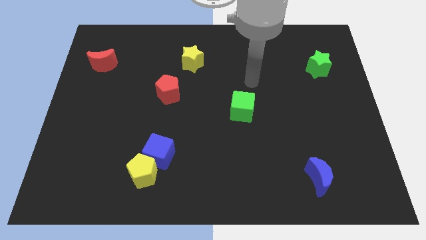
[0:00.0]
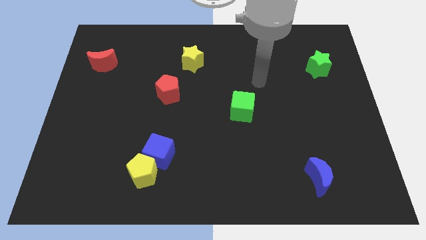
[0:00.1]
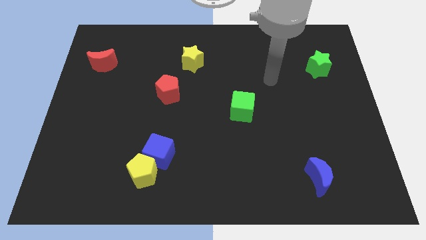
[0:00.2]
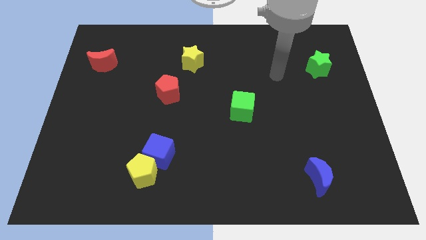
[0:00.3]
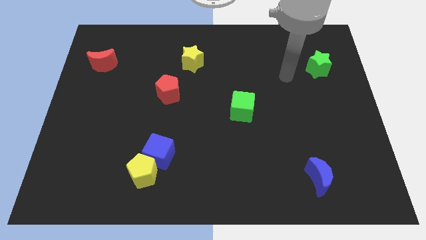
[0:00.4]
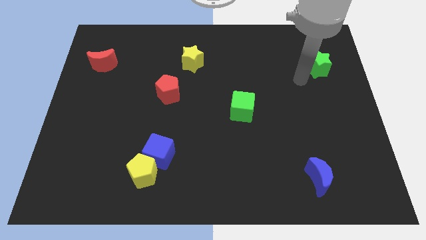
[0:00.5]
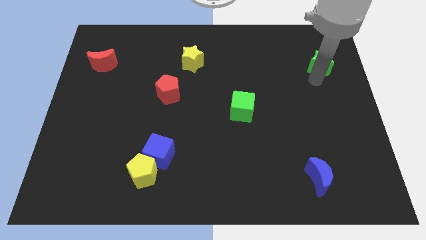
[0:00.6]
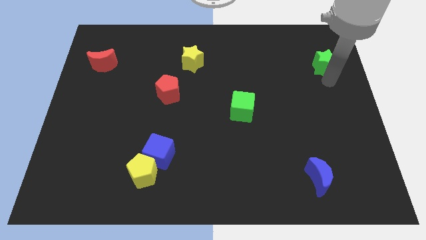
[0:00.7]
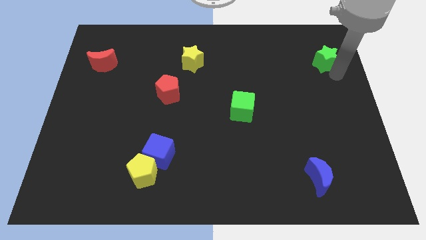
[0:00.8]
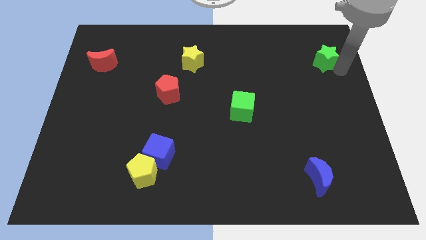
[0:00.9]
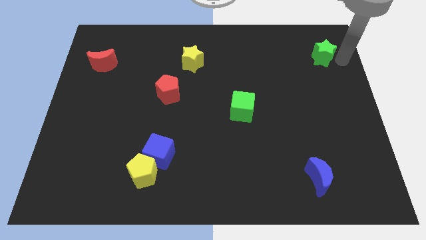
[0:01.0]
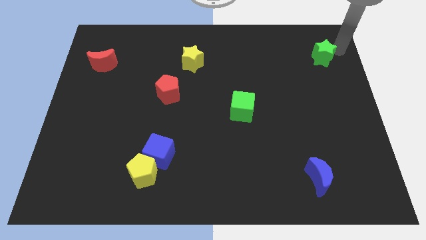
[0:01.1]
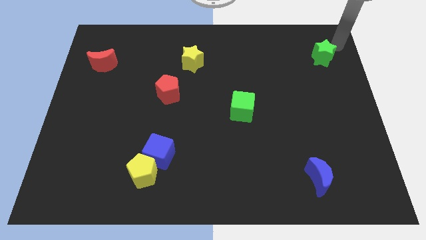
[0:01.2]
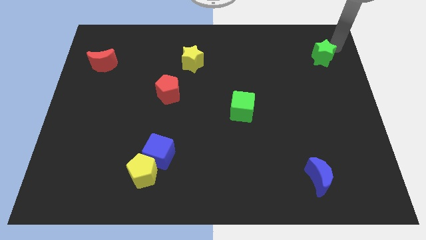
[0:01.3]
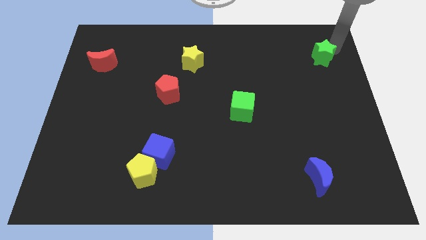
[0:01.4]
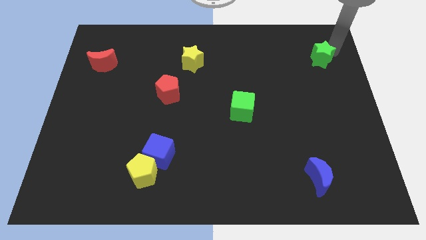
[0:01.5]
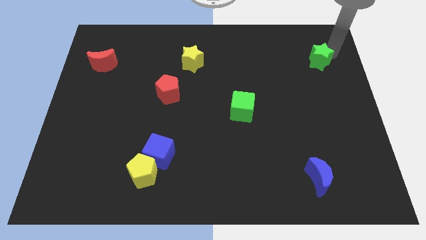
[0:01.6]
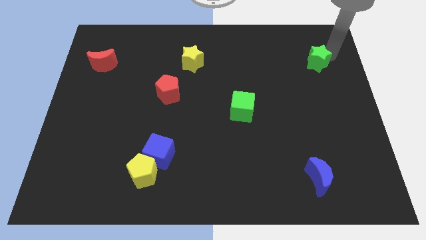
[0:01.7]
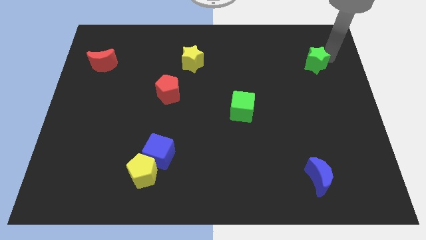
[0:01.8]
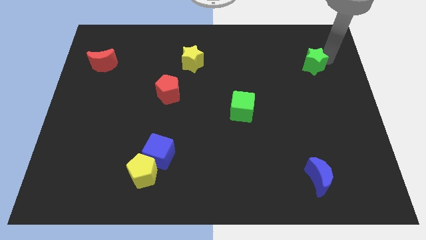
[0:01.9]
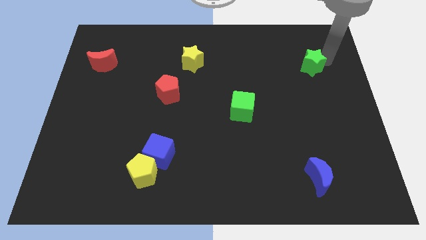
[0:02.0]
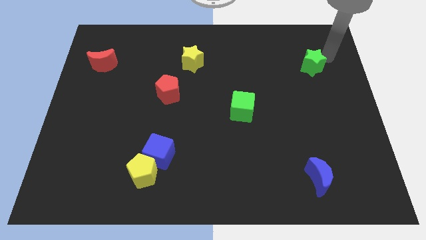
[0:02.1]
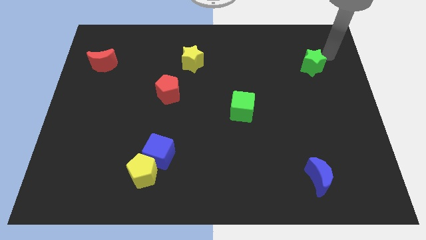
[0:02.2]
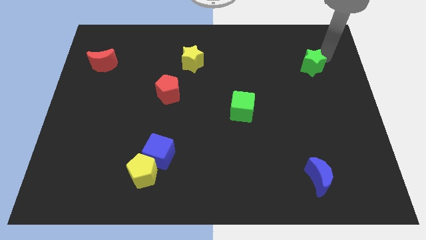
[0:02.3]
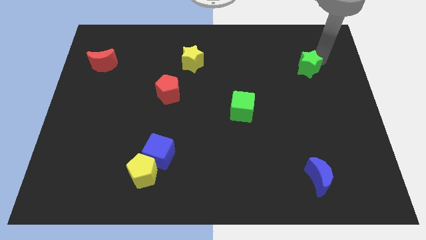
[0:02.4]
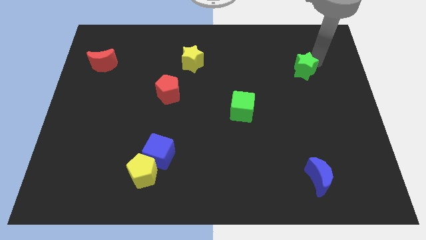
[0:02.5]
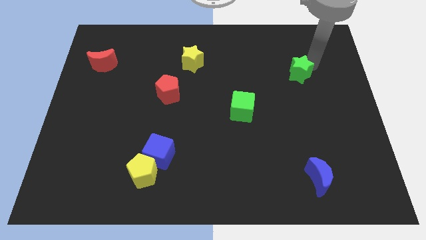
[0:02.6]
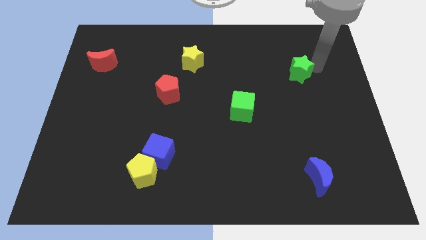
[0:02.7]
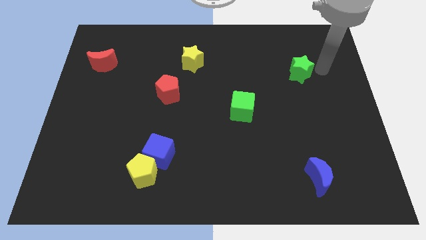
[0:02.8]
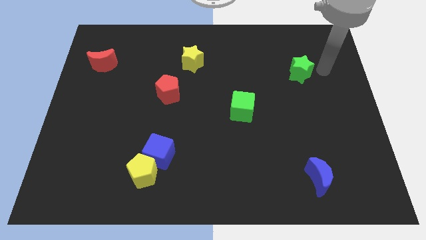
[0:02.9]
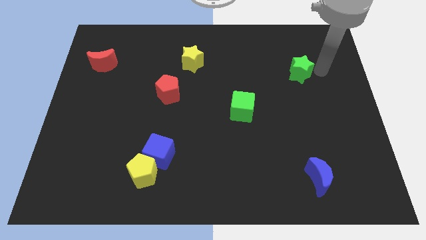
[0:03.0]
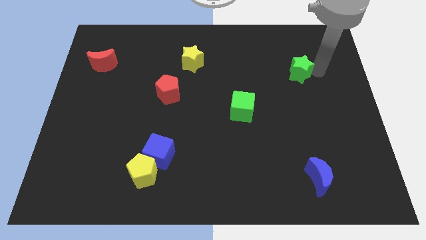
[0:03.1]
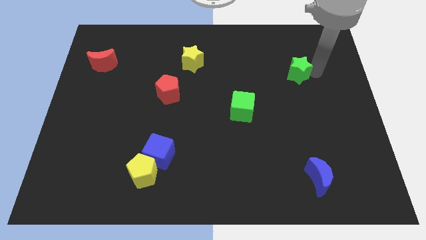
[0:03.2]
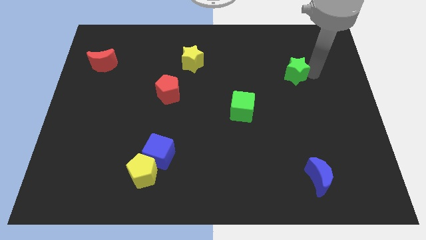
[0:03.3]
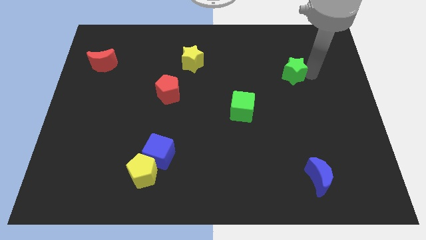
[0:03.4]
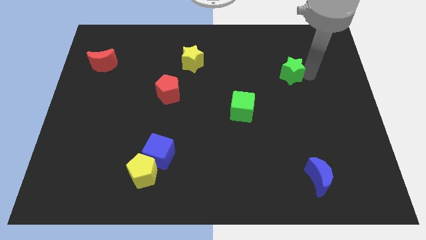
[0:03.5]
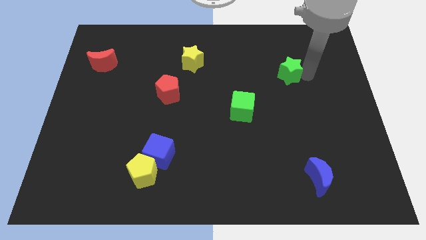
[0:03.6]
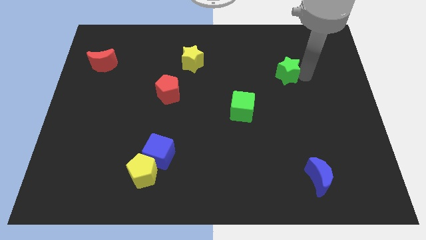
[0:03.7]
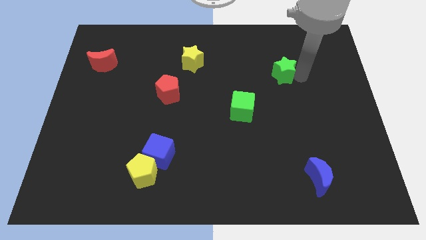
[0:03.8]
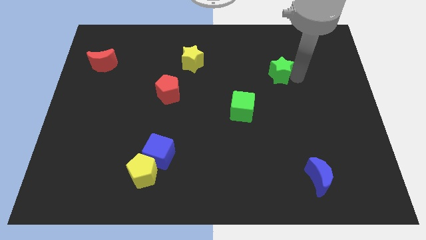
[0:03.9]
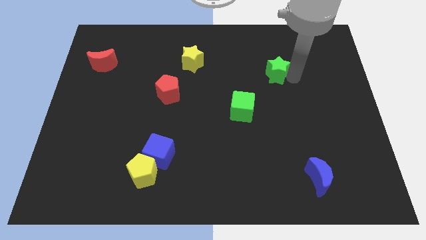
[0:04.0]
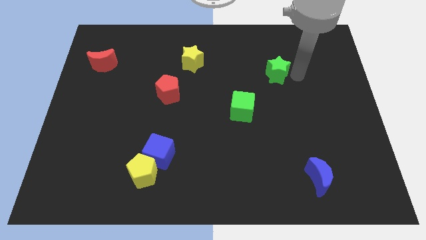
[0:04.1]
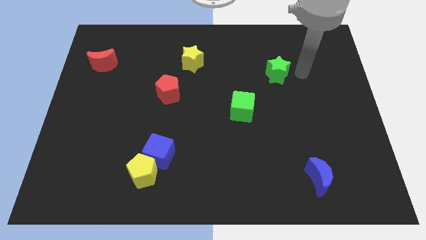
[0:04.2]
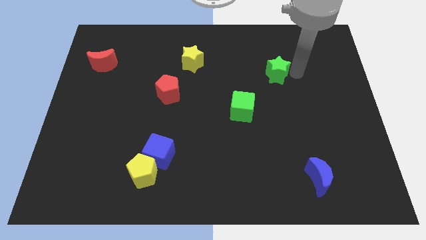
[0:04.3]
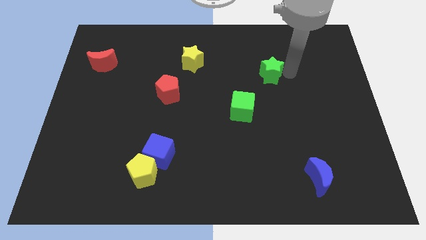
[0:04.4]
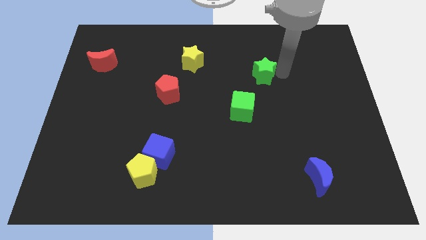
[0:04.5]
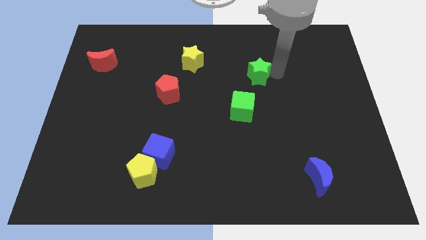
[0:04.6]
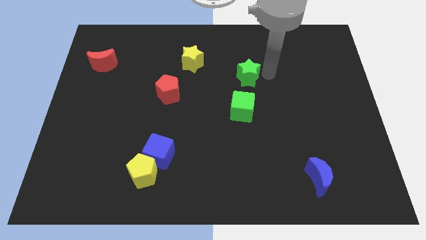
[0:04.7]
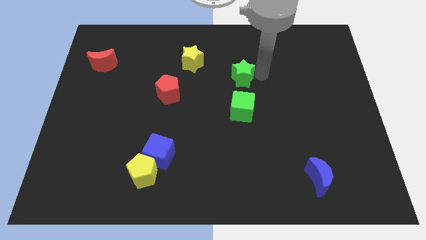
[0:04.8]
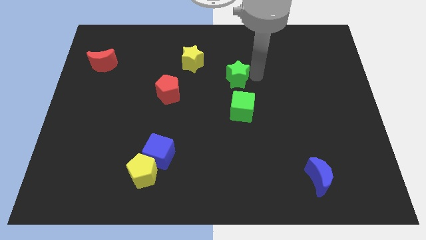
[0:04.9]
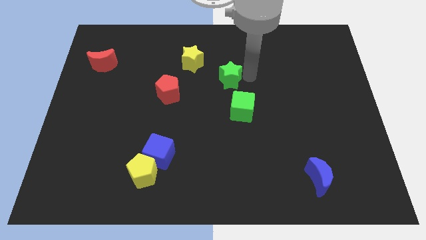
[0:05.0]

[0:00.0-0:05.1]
slide the green star diagonally down and to the right of the yellow star

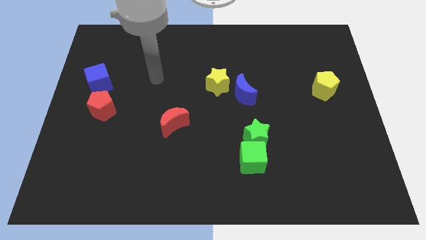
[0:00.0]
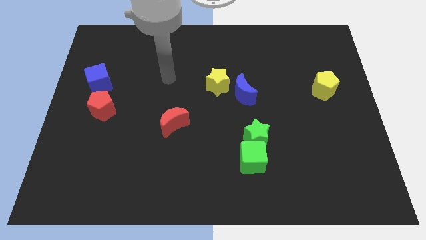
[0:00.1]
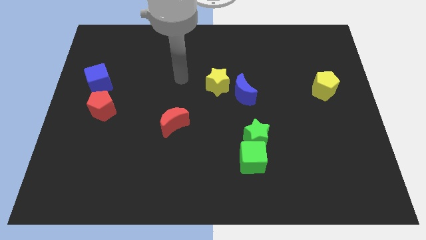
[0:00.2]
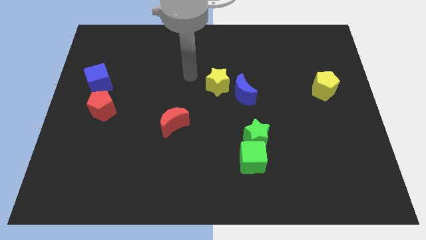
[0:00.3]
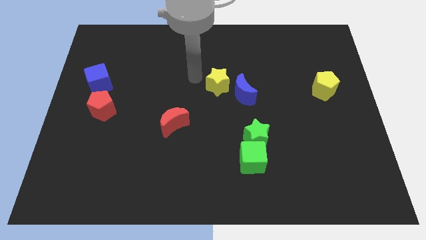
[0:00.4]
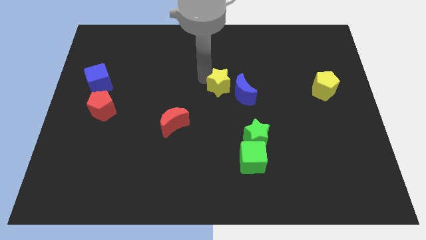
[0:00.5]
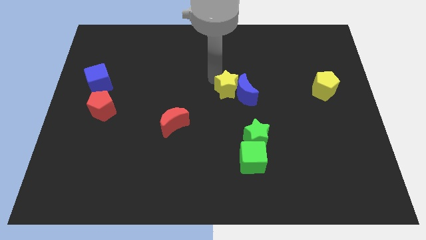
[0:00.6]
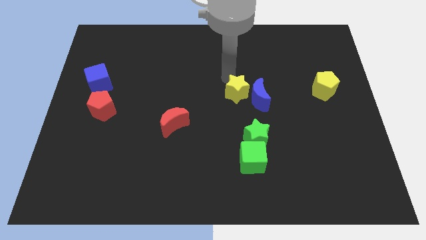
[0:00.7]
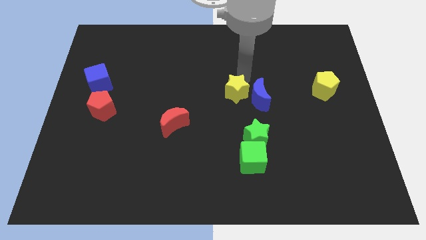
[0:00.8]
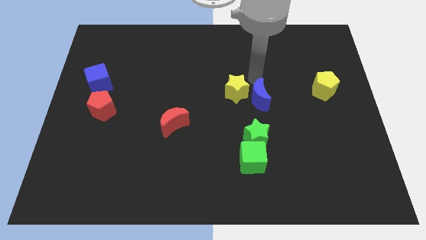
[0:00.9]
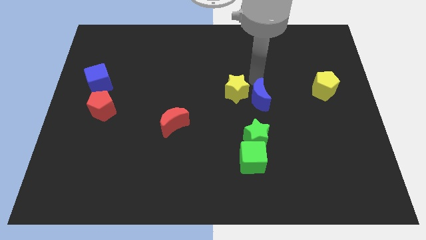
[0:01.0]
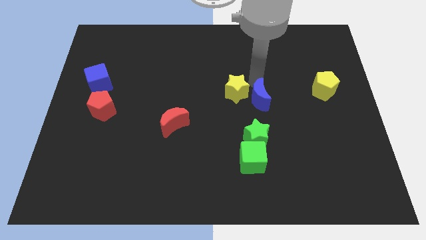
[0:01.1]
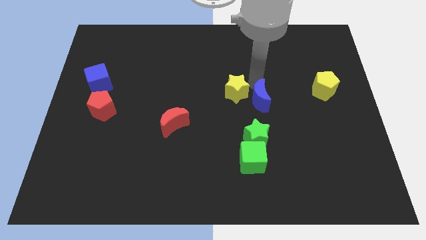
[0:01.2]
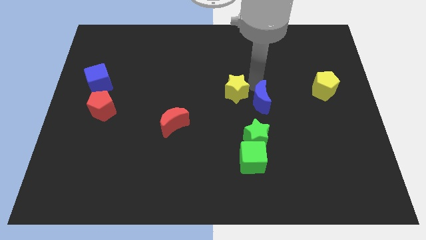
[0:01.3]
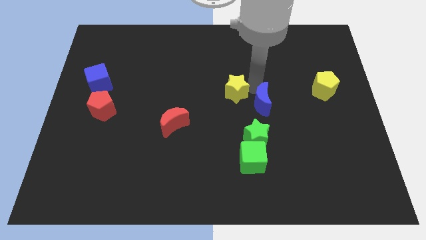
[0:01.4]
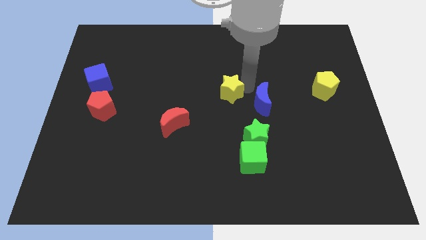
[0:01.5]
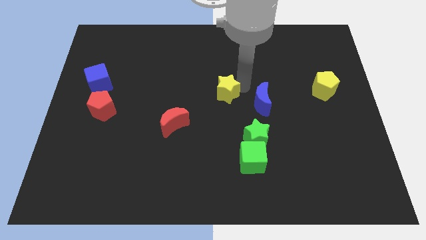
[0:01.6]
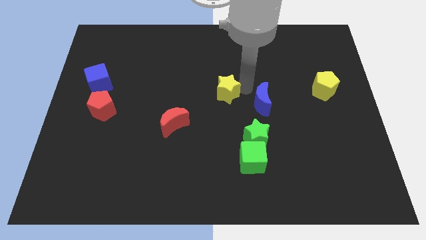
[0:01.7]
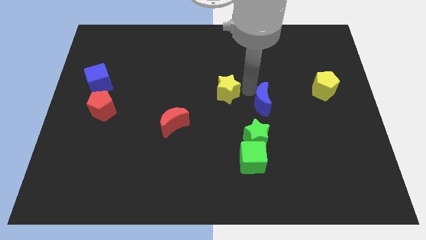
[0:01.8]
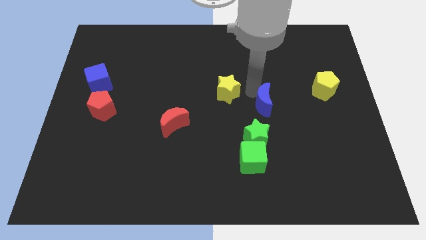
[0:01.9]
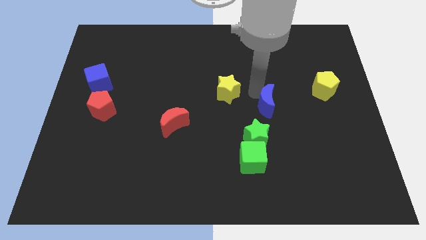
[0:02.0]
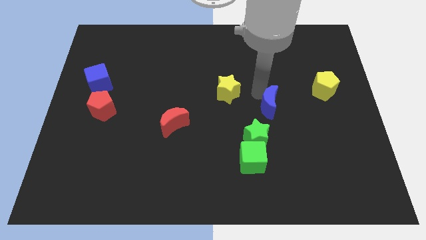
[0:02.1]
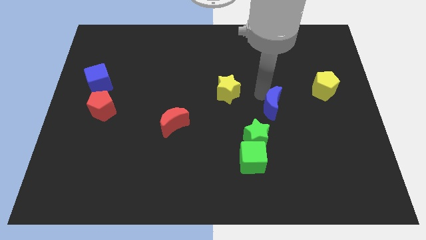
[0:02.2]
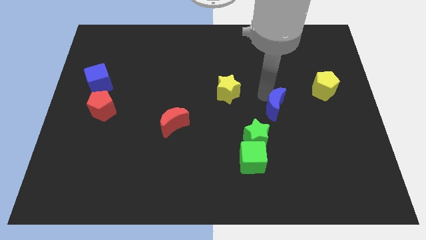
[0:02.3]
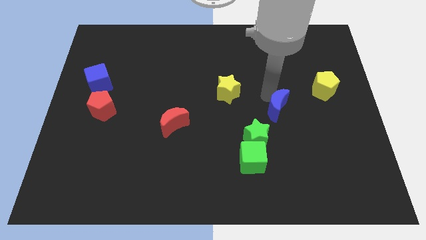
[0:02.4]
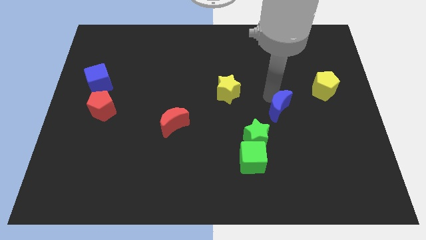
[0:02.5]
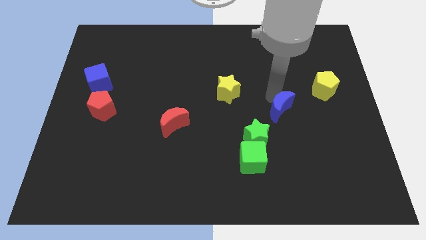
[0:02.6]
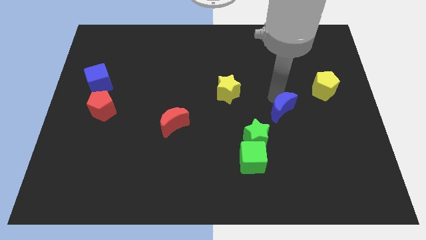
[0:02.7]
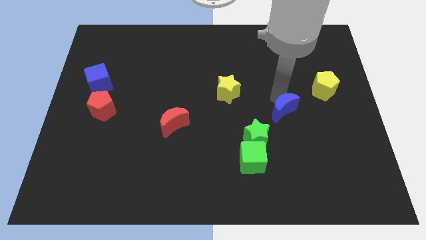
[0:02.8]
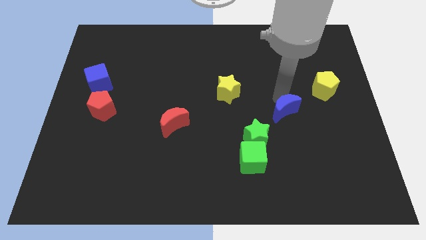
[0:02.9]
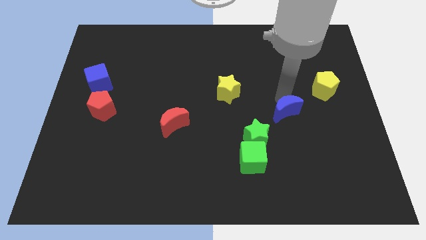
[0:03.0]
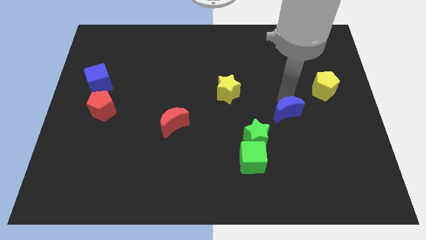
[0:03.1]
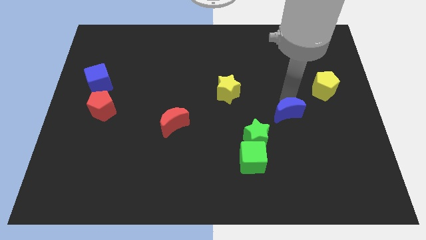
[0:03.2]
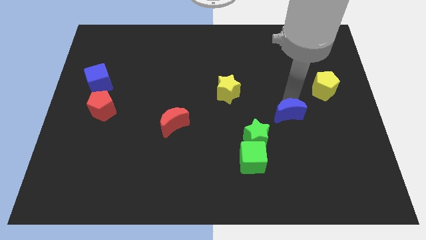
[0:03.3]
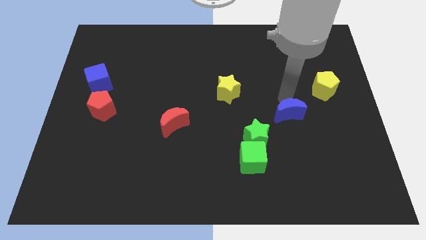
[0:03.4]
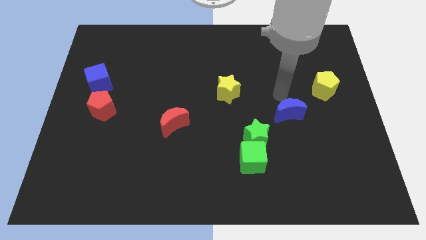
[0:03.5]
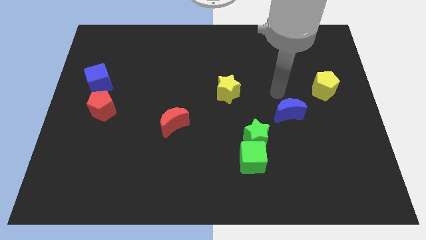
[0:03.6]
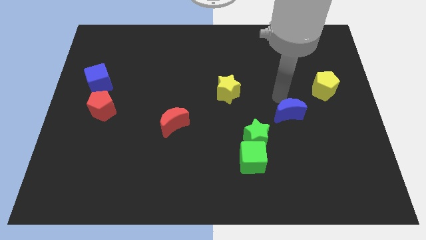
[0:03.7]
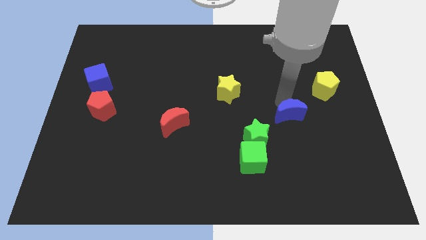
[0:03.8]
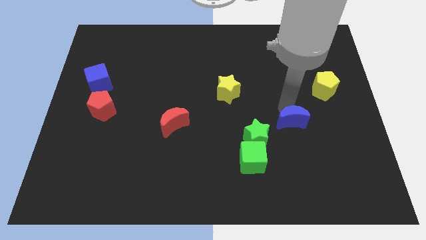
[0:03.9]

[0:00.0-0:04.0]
slide the blue moon just right of the green star
